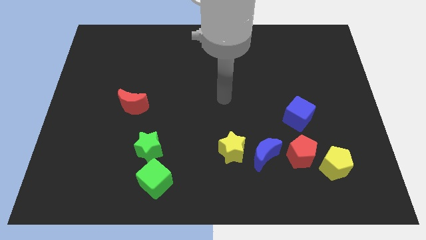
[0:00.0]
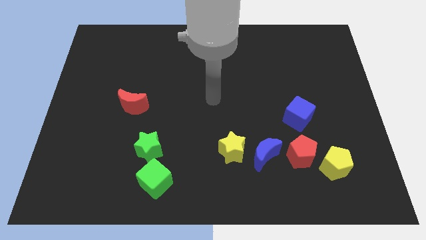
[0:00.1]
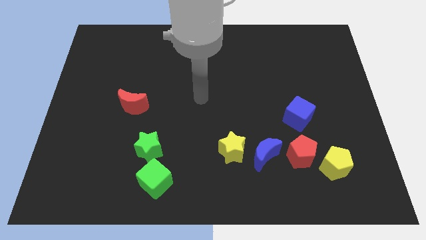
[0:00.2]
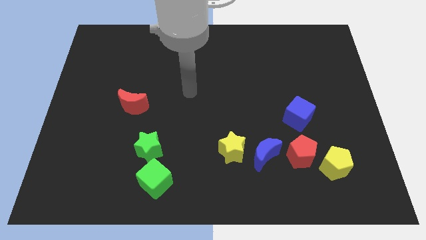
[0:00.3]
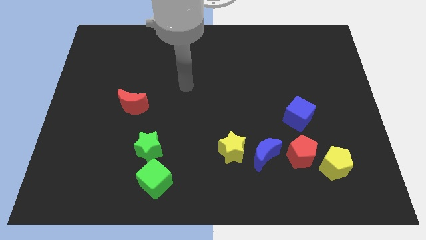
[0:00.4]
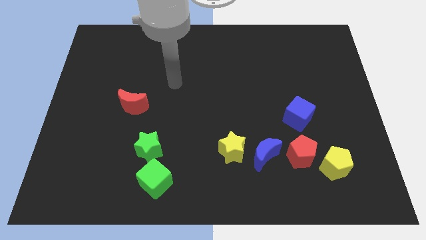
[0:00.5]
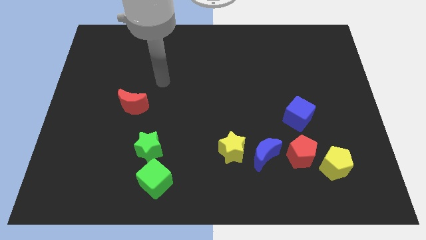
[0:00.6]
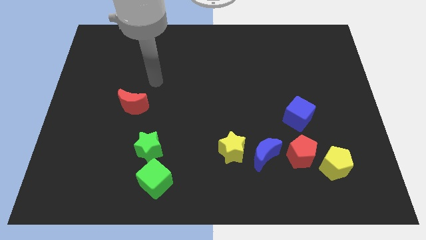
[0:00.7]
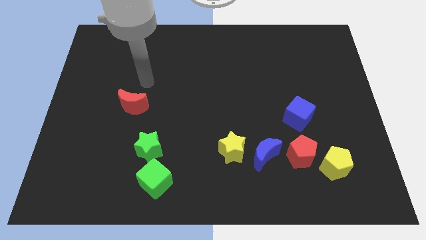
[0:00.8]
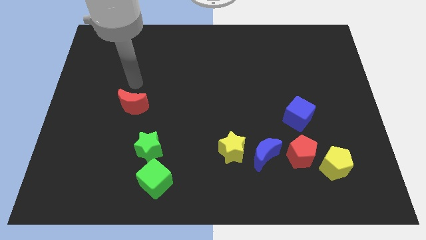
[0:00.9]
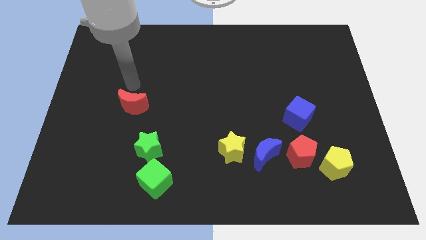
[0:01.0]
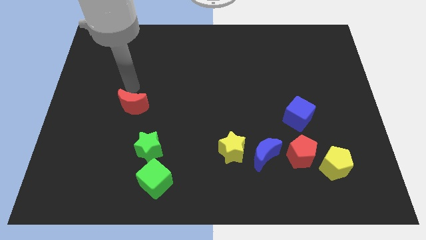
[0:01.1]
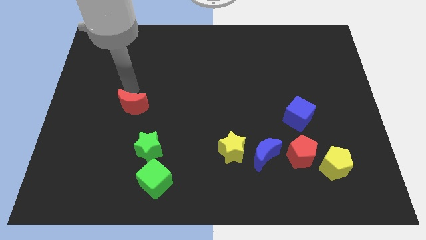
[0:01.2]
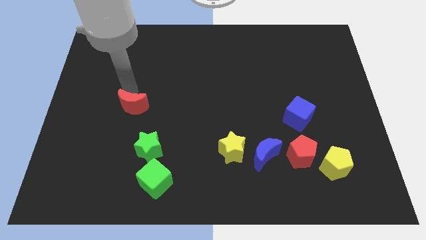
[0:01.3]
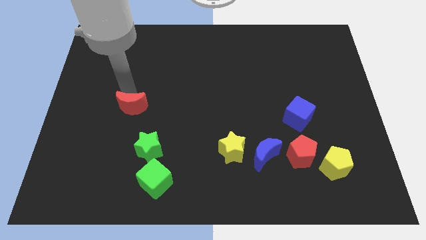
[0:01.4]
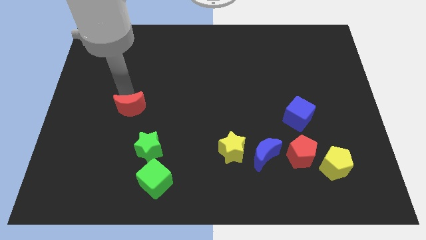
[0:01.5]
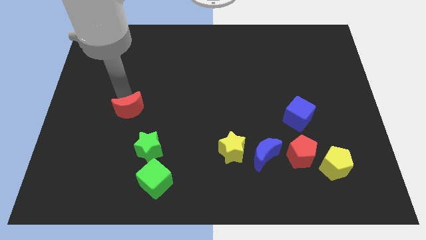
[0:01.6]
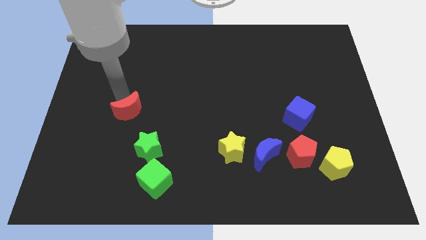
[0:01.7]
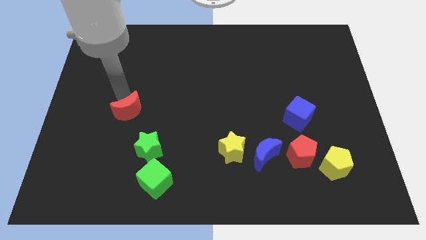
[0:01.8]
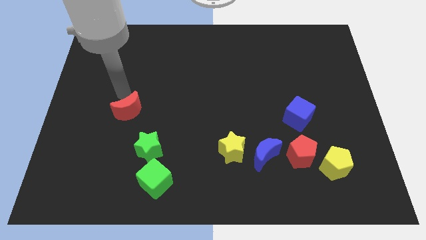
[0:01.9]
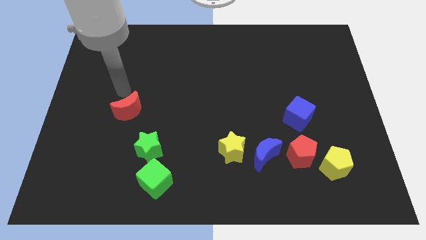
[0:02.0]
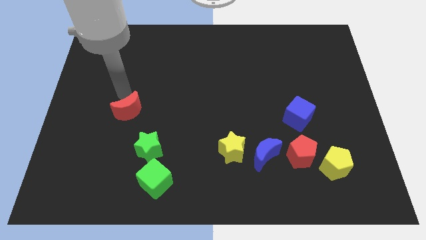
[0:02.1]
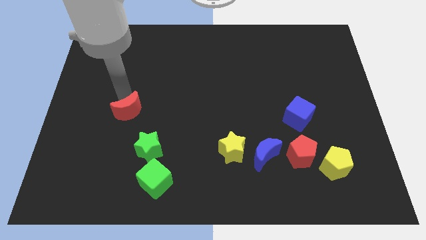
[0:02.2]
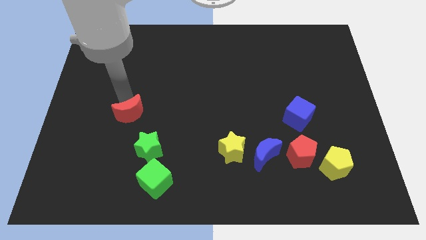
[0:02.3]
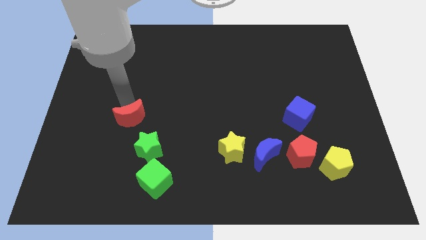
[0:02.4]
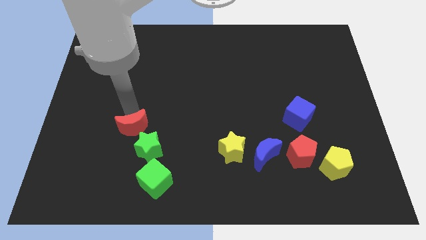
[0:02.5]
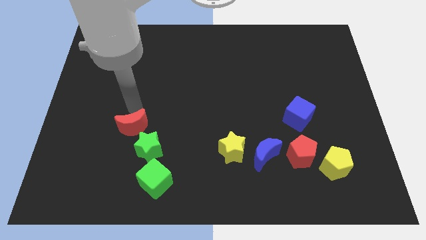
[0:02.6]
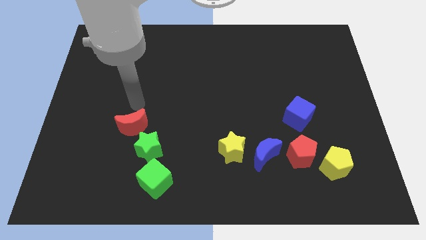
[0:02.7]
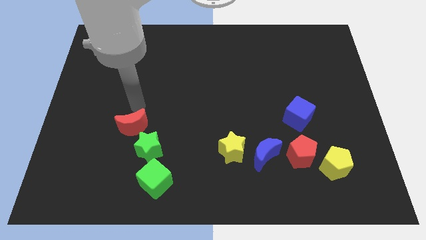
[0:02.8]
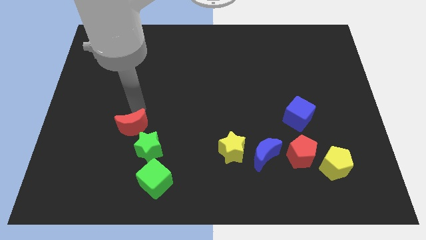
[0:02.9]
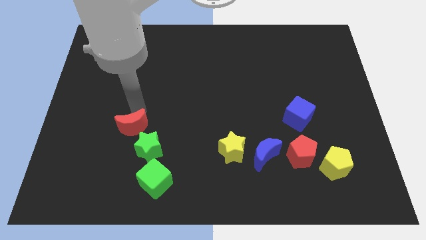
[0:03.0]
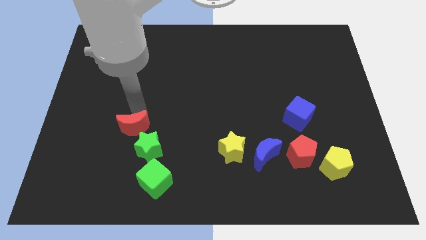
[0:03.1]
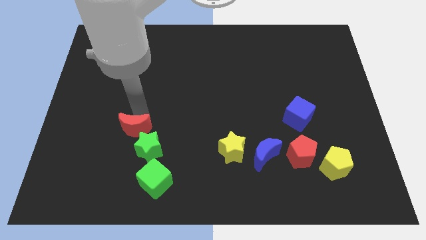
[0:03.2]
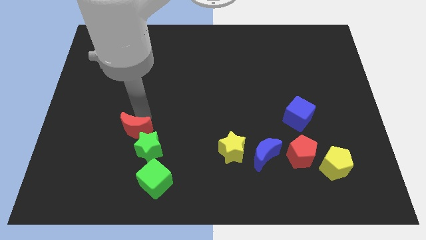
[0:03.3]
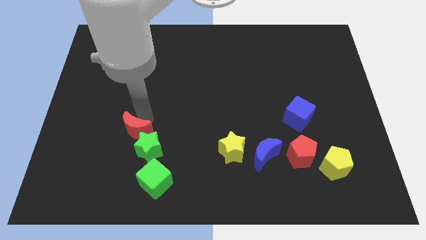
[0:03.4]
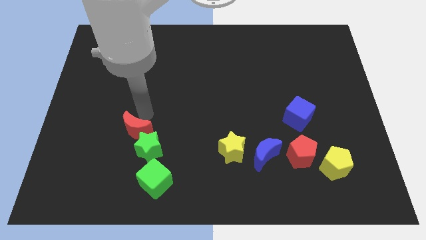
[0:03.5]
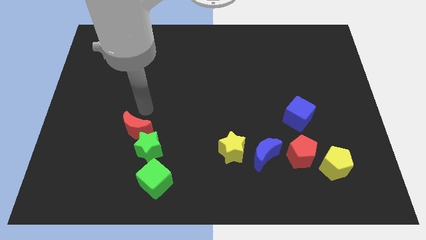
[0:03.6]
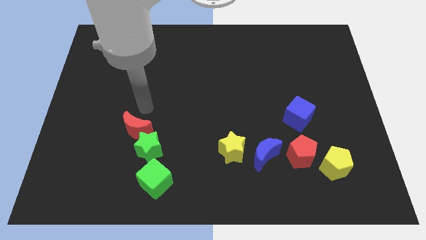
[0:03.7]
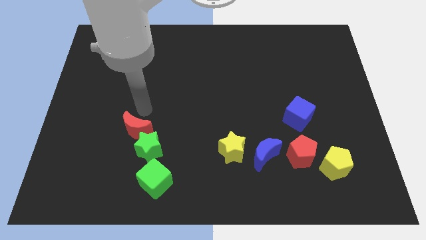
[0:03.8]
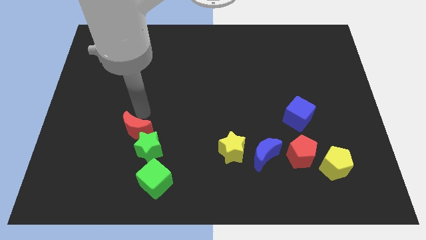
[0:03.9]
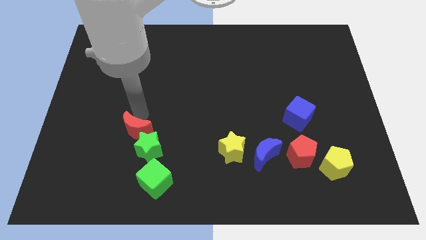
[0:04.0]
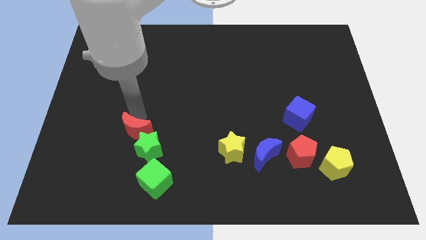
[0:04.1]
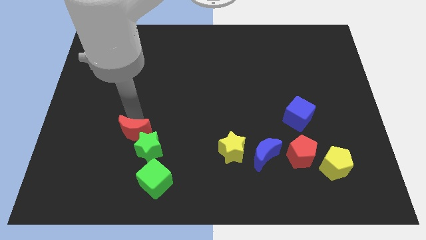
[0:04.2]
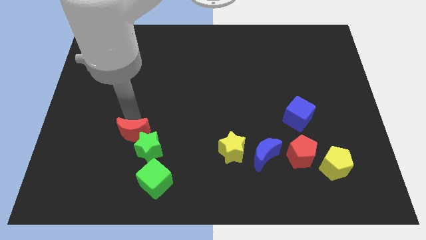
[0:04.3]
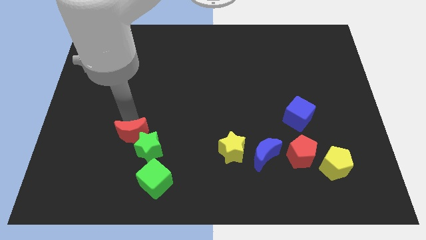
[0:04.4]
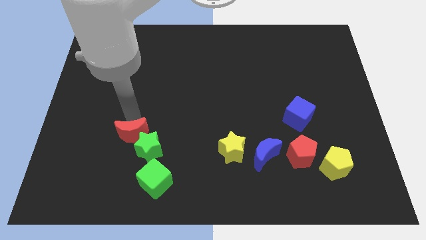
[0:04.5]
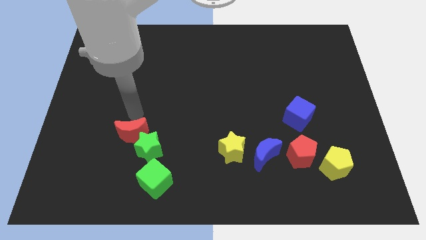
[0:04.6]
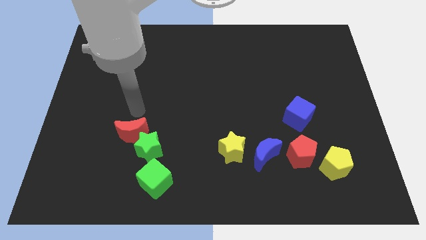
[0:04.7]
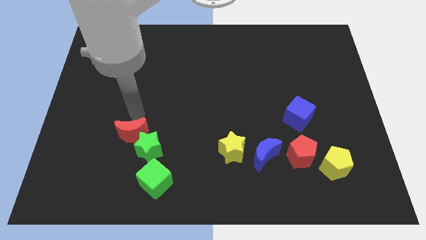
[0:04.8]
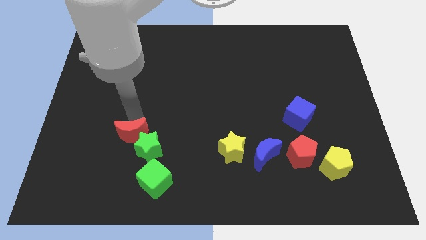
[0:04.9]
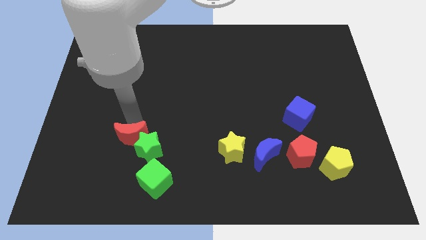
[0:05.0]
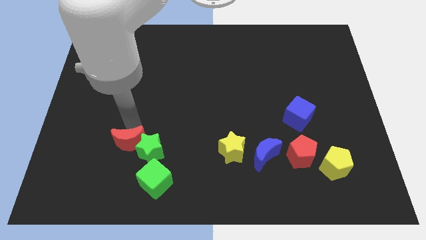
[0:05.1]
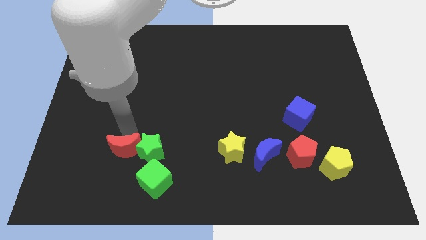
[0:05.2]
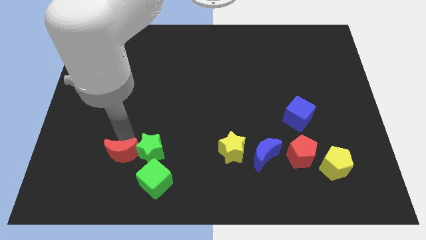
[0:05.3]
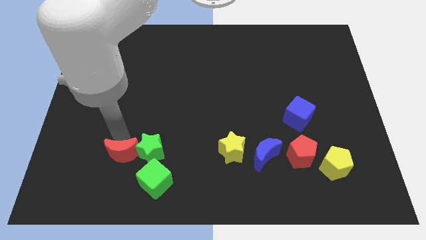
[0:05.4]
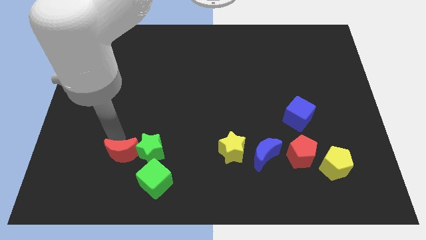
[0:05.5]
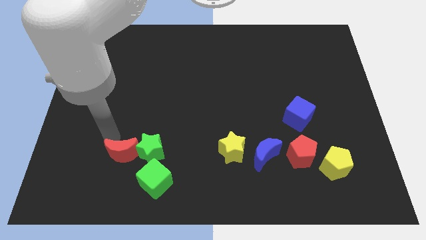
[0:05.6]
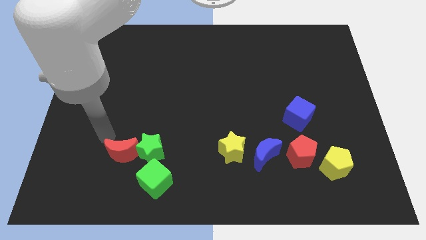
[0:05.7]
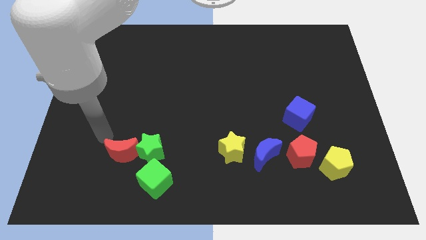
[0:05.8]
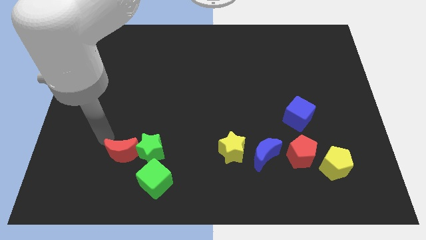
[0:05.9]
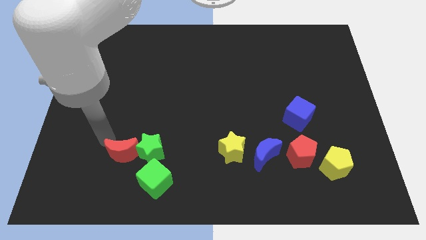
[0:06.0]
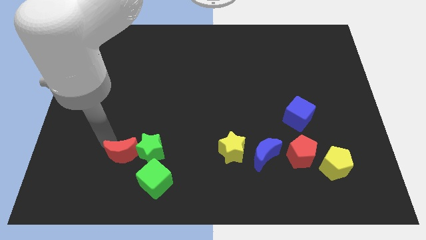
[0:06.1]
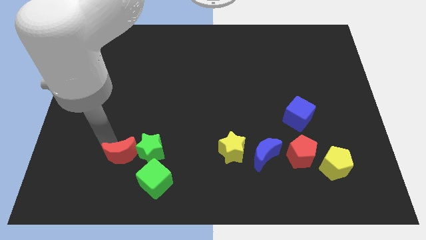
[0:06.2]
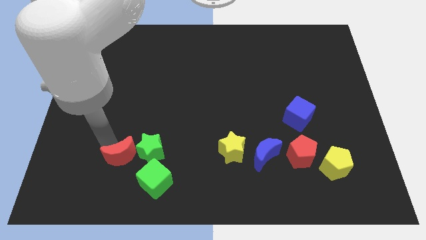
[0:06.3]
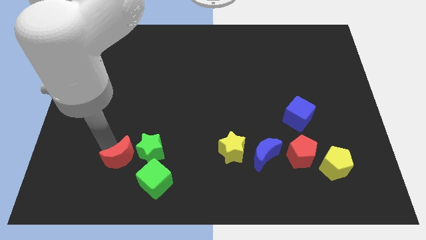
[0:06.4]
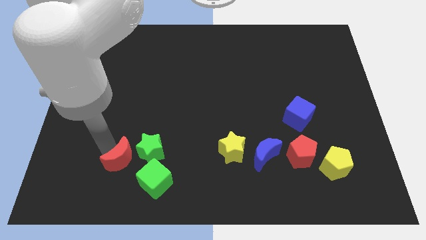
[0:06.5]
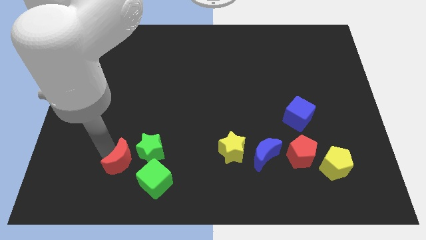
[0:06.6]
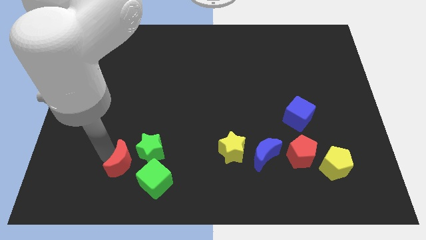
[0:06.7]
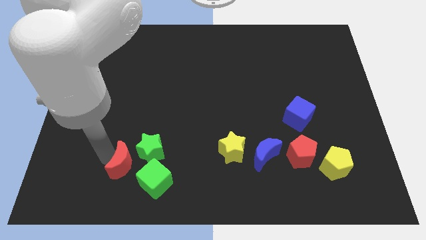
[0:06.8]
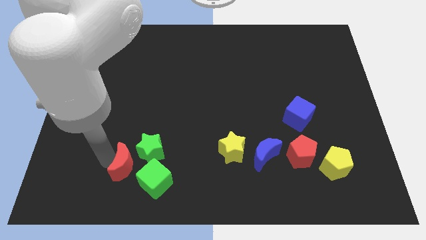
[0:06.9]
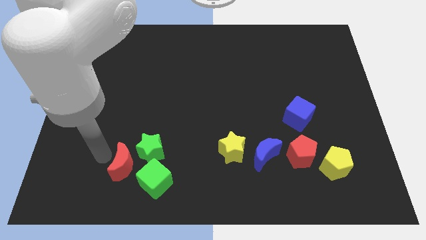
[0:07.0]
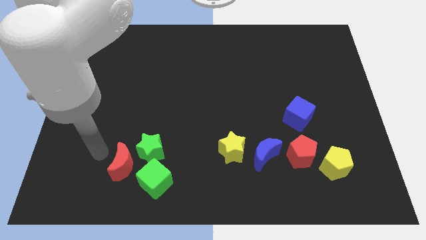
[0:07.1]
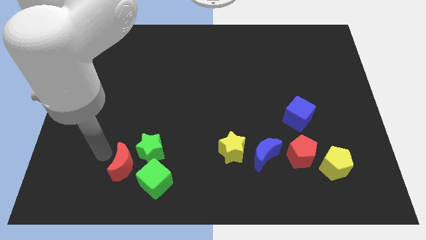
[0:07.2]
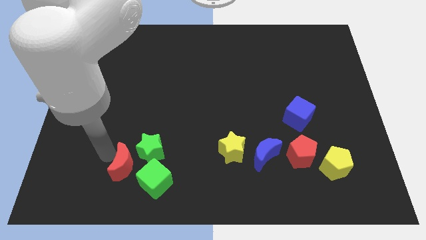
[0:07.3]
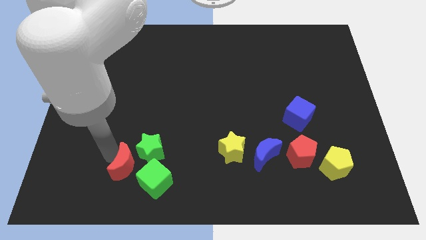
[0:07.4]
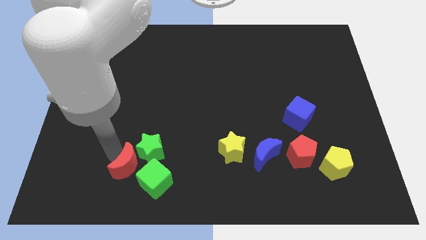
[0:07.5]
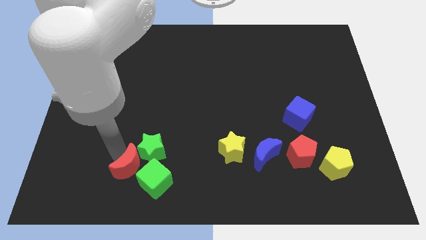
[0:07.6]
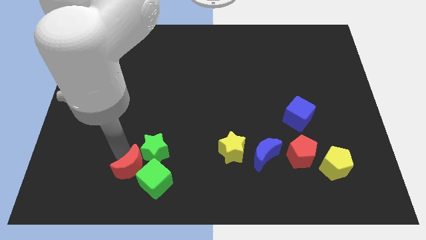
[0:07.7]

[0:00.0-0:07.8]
slide the red moon close to the green cube
